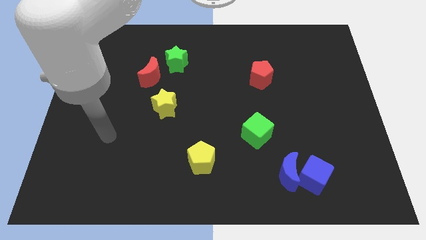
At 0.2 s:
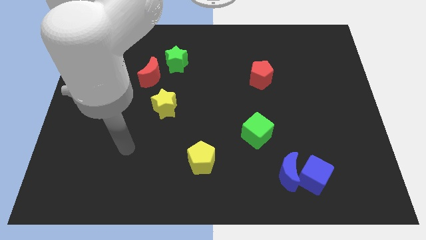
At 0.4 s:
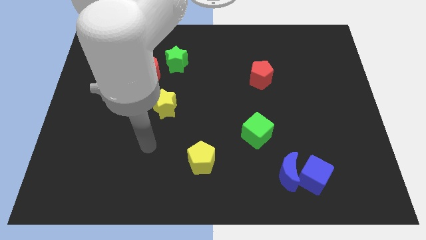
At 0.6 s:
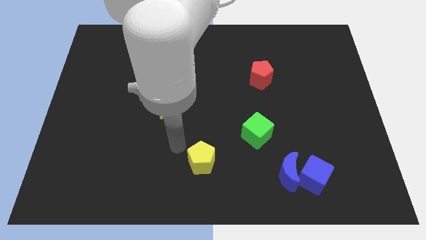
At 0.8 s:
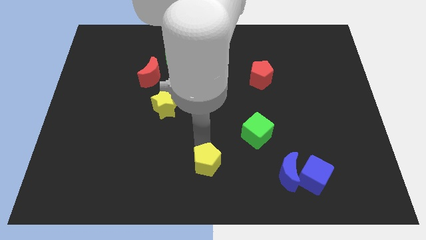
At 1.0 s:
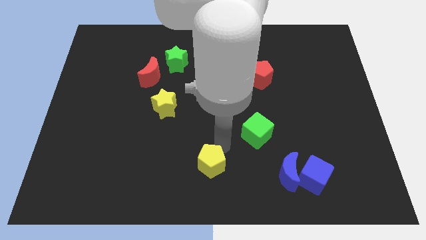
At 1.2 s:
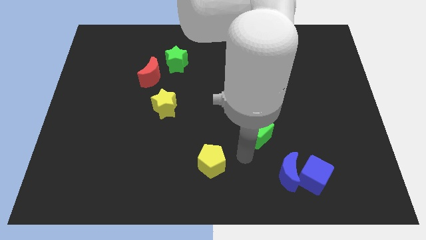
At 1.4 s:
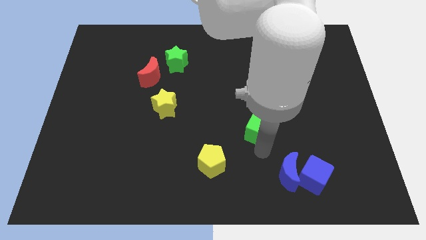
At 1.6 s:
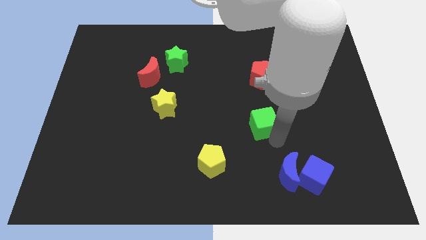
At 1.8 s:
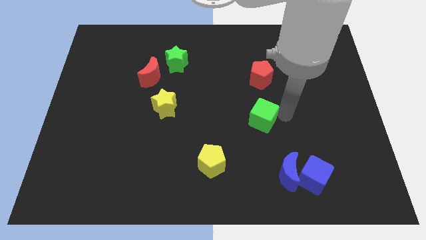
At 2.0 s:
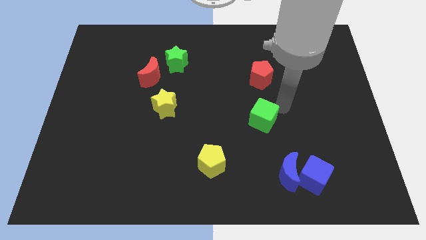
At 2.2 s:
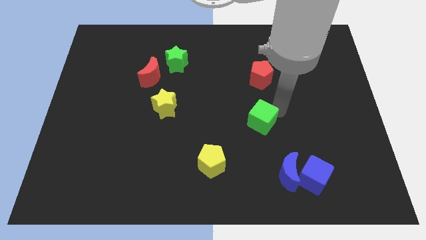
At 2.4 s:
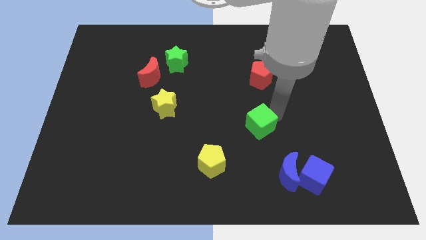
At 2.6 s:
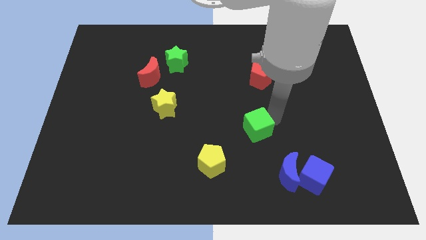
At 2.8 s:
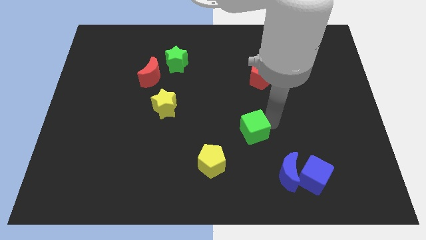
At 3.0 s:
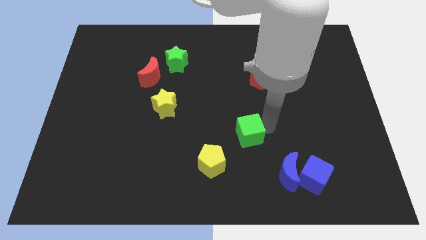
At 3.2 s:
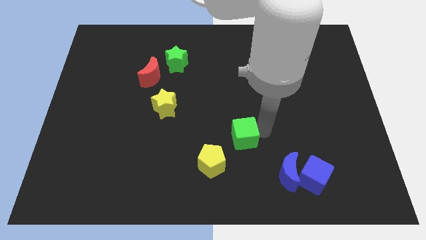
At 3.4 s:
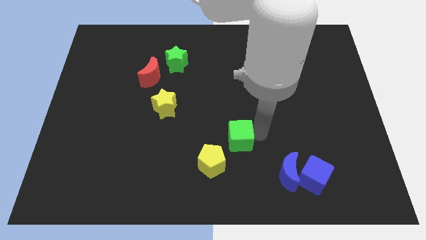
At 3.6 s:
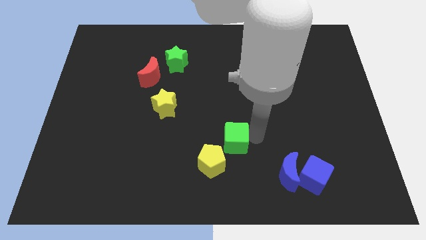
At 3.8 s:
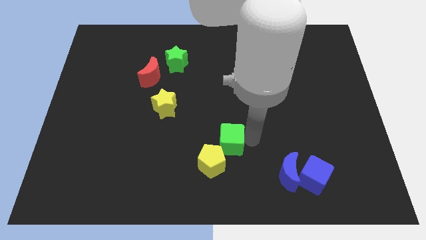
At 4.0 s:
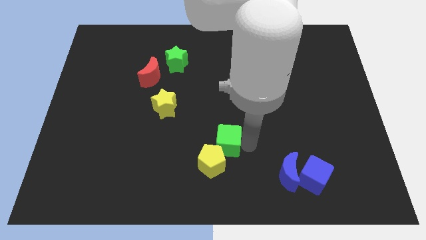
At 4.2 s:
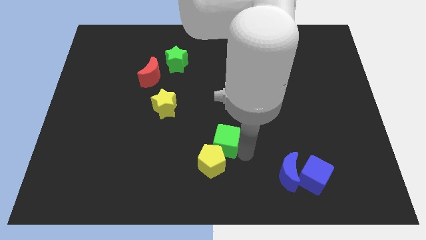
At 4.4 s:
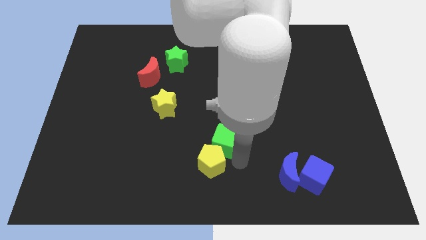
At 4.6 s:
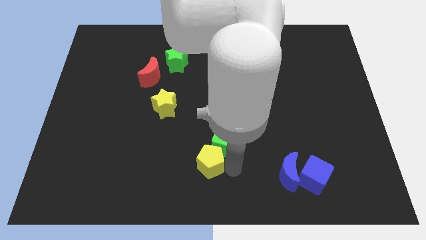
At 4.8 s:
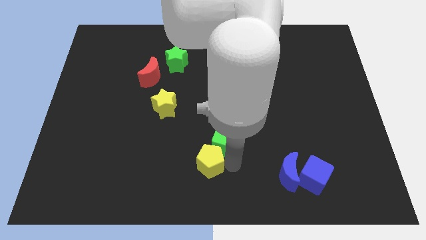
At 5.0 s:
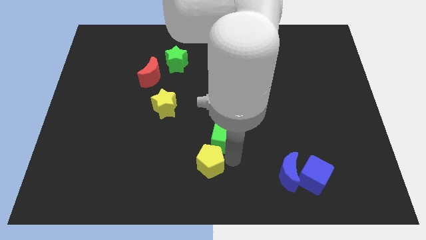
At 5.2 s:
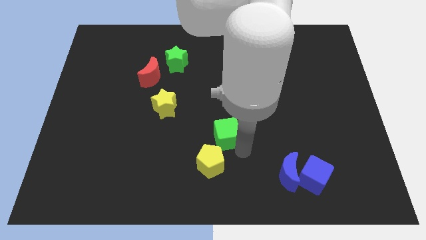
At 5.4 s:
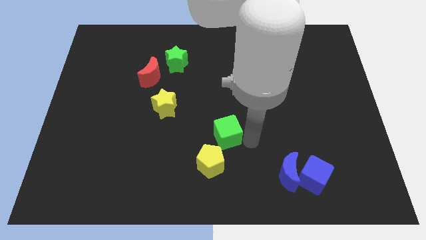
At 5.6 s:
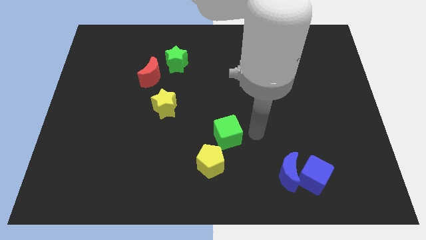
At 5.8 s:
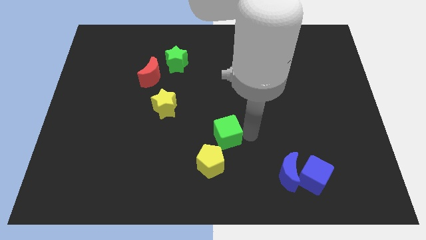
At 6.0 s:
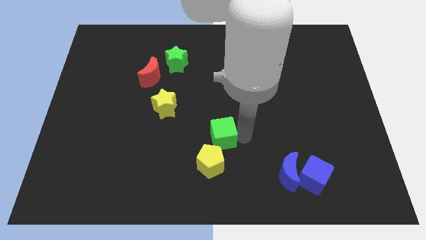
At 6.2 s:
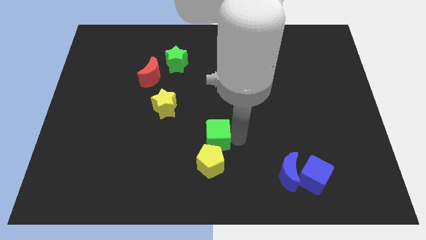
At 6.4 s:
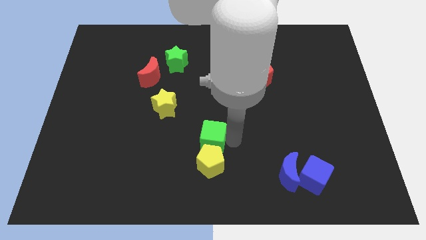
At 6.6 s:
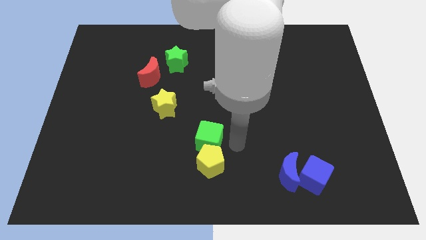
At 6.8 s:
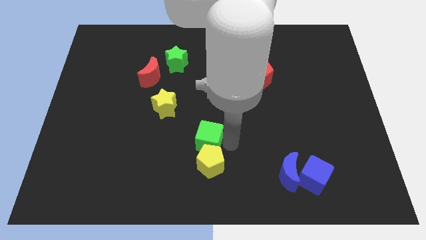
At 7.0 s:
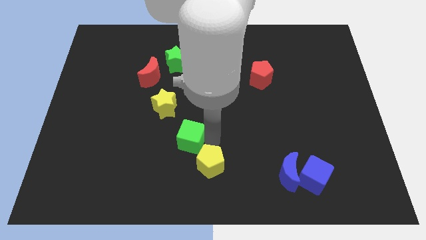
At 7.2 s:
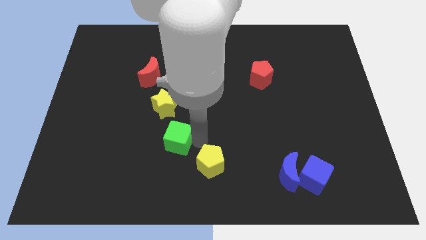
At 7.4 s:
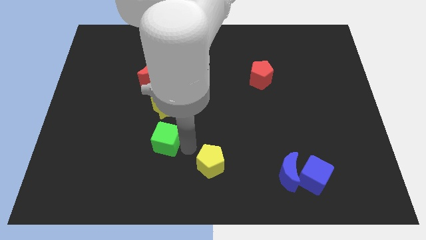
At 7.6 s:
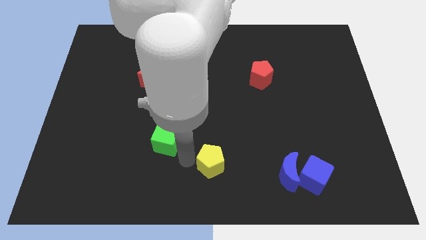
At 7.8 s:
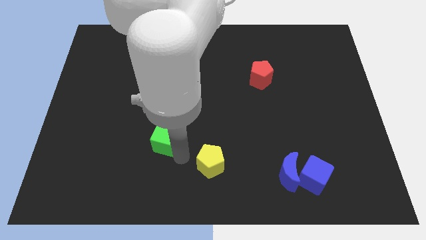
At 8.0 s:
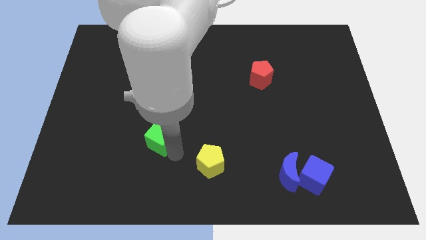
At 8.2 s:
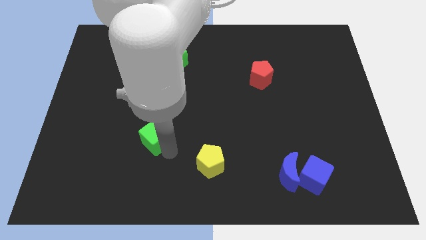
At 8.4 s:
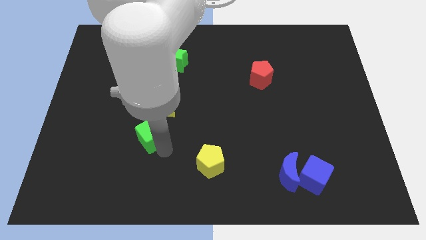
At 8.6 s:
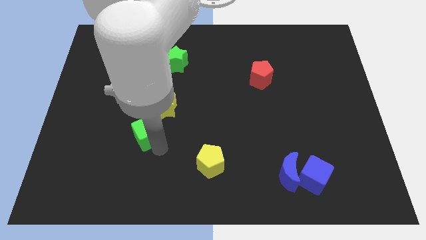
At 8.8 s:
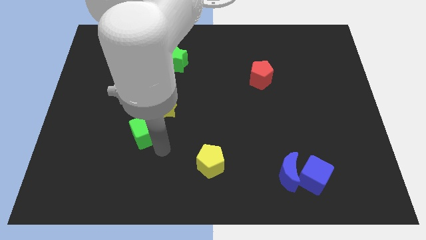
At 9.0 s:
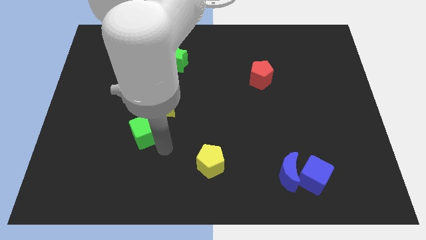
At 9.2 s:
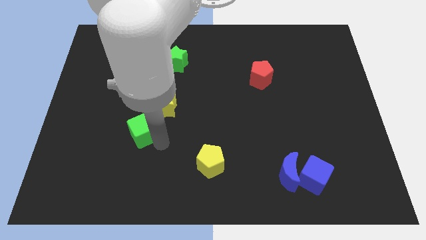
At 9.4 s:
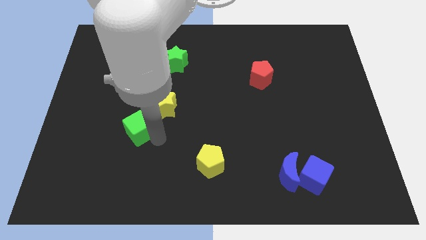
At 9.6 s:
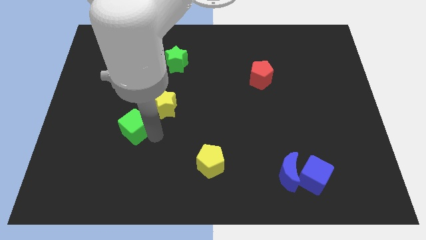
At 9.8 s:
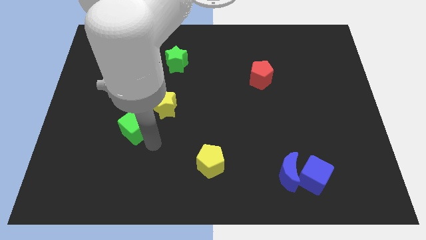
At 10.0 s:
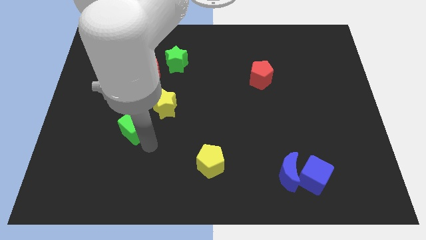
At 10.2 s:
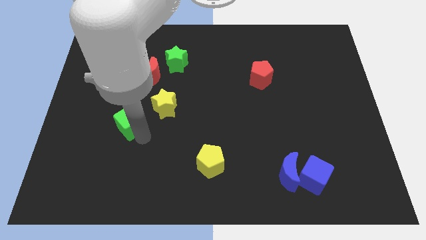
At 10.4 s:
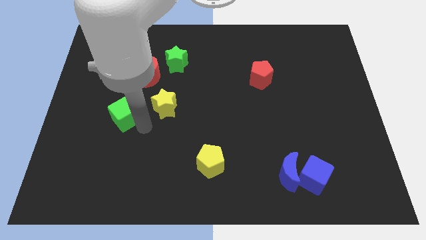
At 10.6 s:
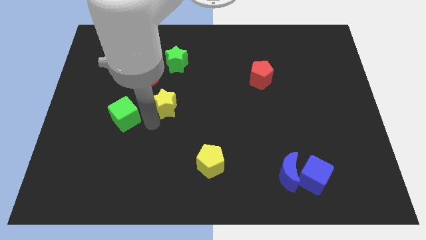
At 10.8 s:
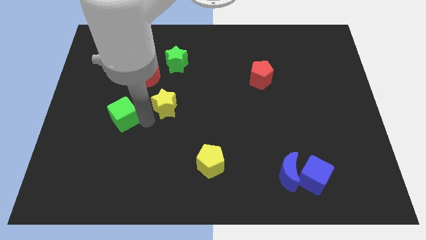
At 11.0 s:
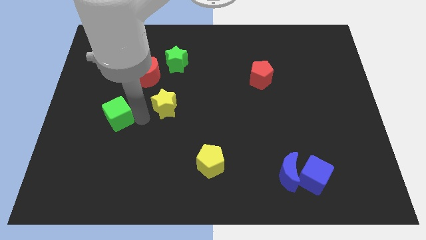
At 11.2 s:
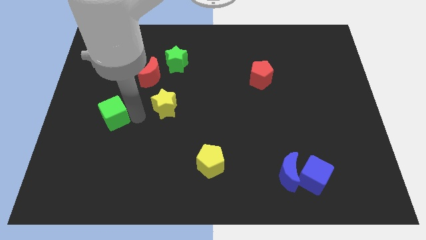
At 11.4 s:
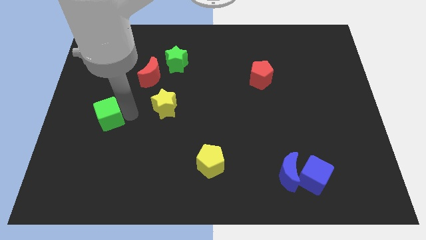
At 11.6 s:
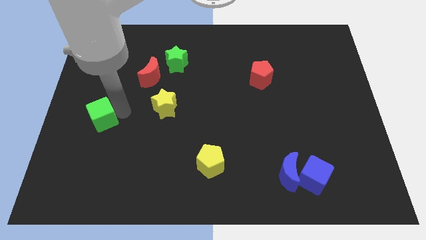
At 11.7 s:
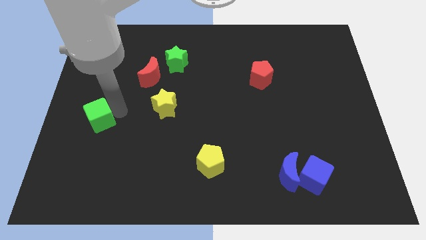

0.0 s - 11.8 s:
push the green cube to the center left
